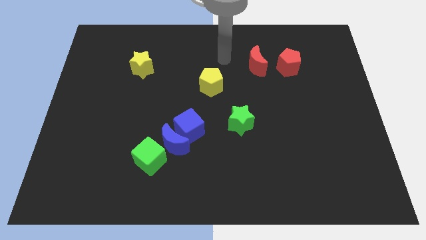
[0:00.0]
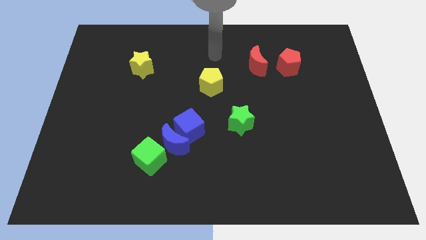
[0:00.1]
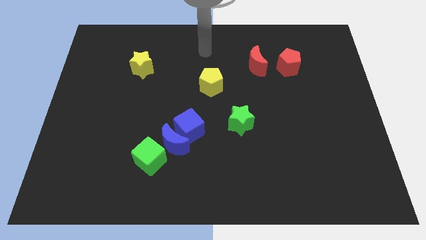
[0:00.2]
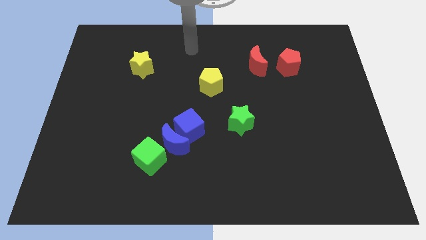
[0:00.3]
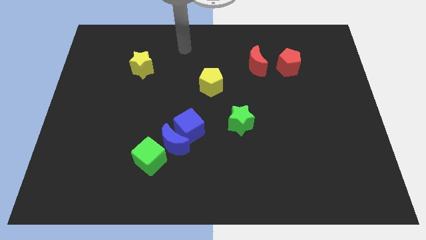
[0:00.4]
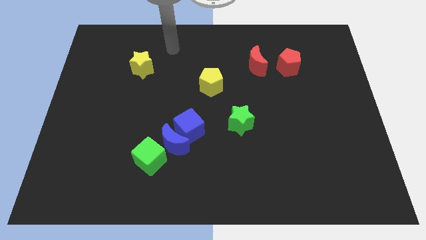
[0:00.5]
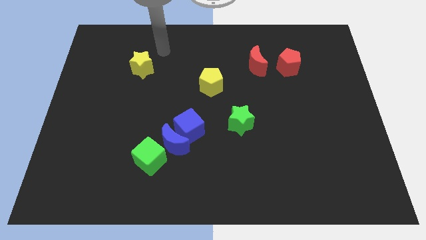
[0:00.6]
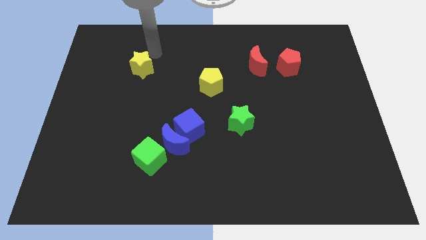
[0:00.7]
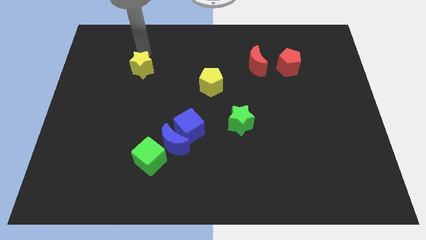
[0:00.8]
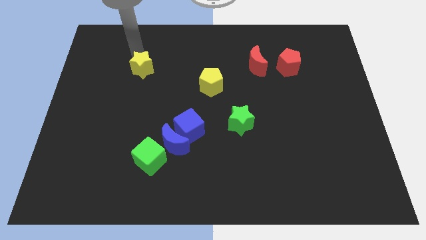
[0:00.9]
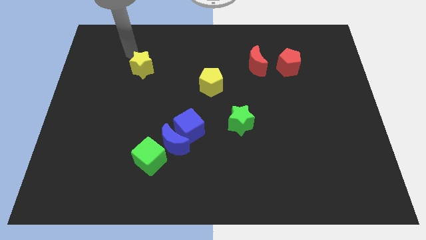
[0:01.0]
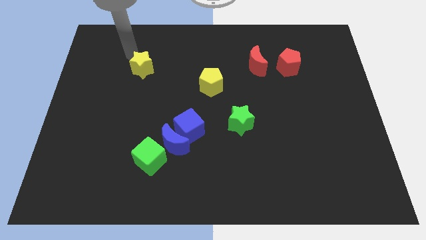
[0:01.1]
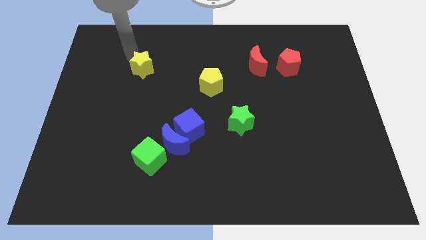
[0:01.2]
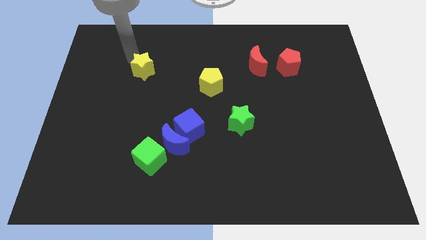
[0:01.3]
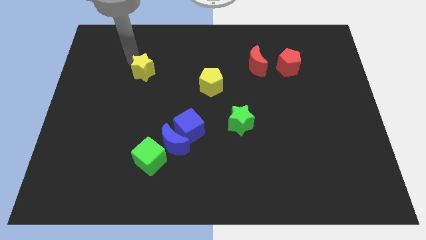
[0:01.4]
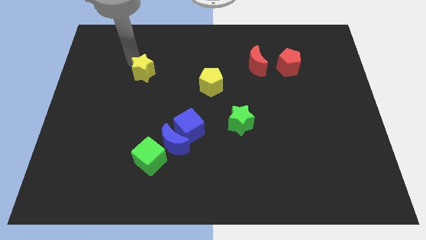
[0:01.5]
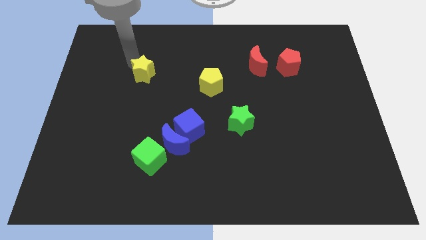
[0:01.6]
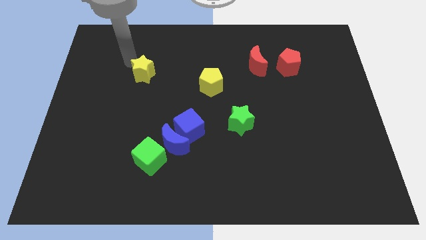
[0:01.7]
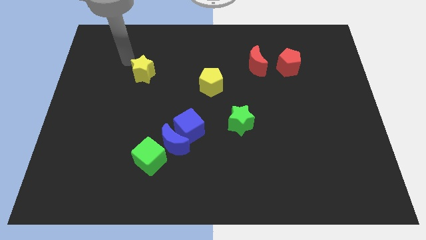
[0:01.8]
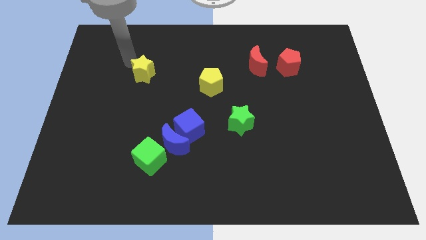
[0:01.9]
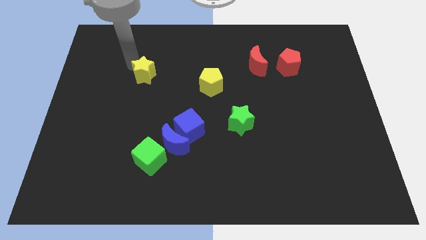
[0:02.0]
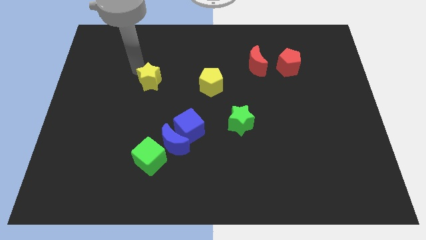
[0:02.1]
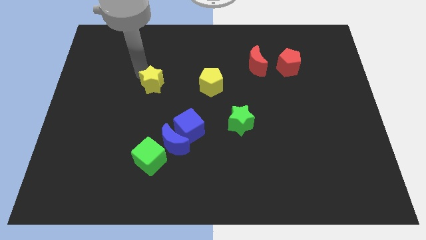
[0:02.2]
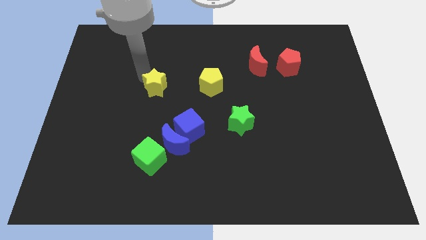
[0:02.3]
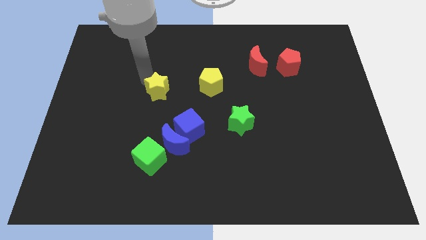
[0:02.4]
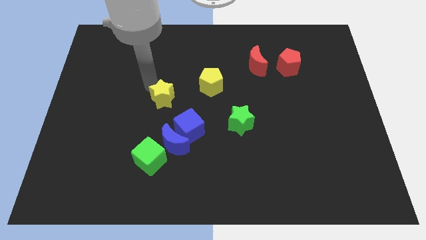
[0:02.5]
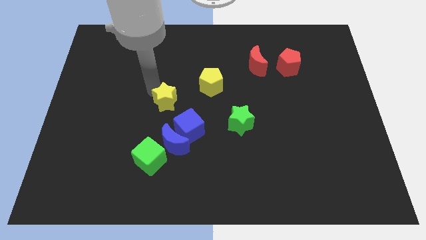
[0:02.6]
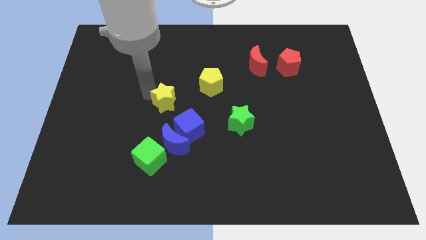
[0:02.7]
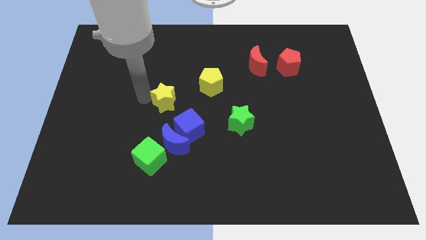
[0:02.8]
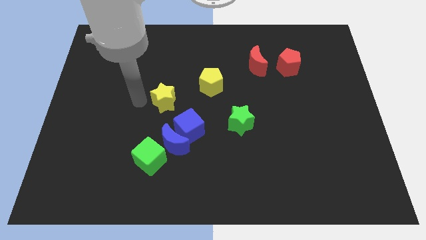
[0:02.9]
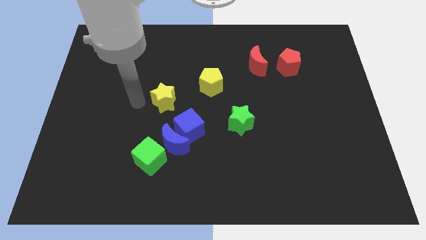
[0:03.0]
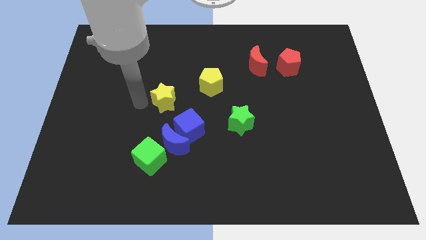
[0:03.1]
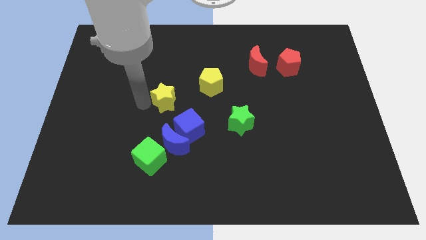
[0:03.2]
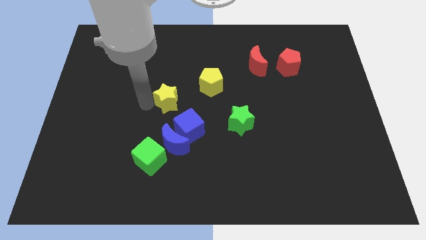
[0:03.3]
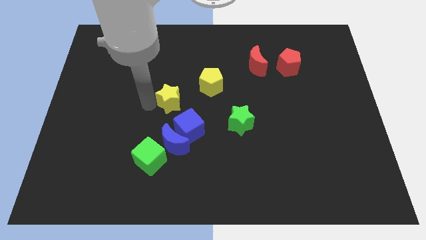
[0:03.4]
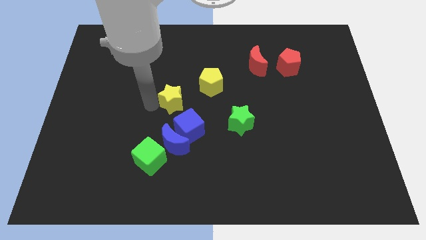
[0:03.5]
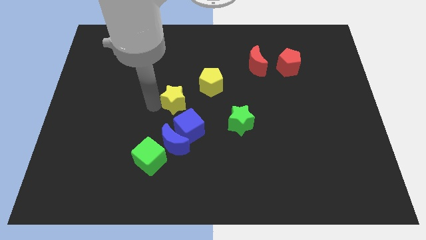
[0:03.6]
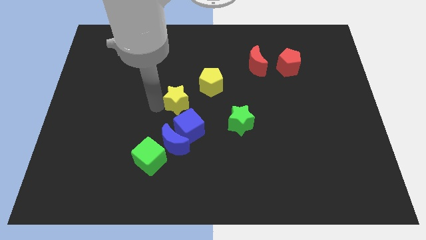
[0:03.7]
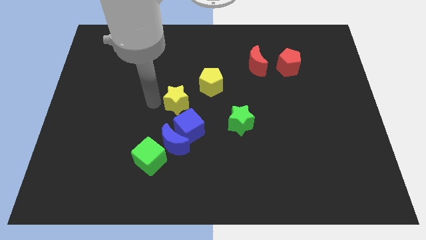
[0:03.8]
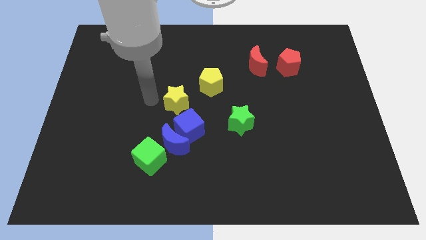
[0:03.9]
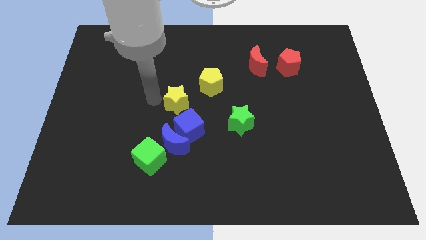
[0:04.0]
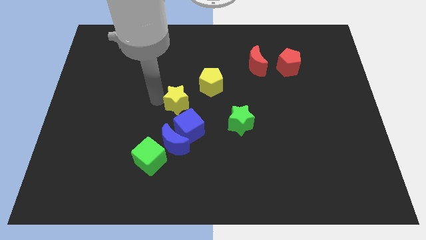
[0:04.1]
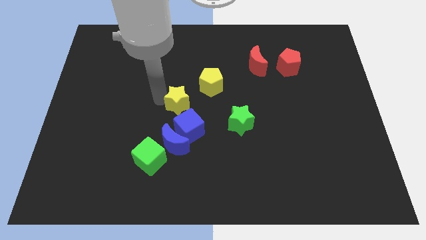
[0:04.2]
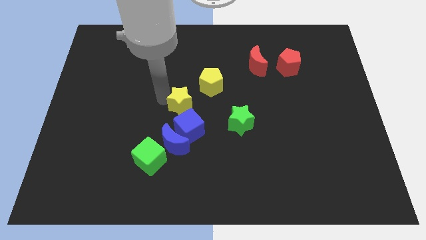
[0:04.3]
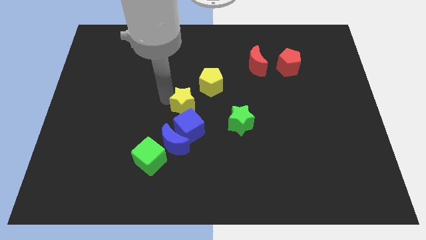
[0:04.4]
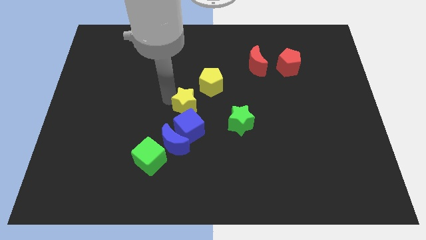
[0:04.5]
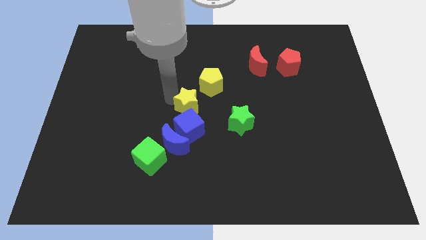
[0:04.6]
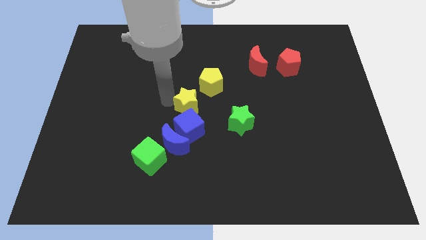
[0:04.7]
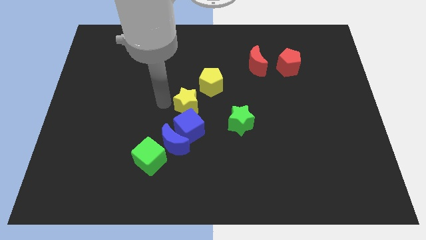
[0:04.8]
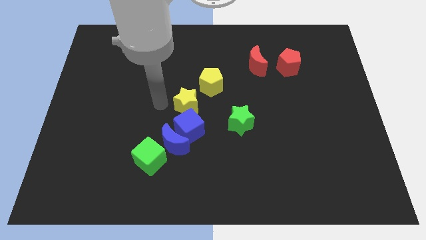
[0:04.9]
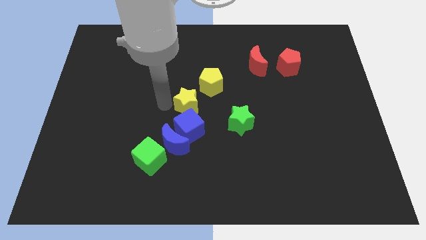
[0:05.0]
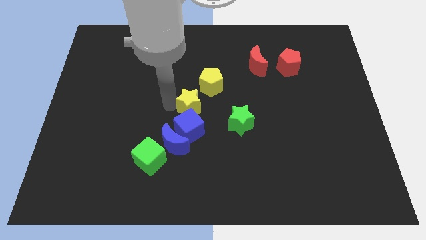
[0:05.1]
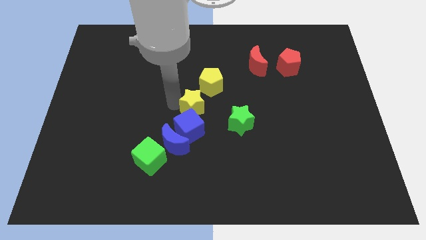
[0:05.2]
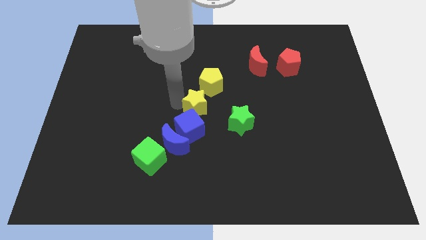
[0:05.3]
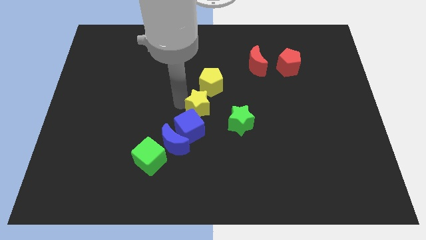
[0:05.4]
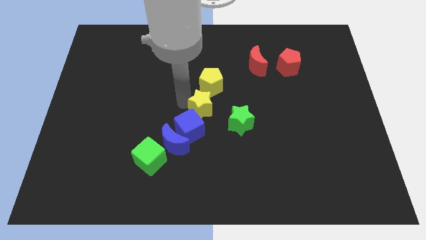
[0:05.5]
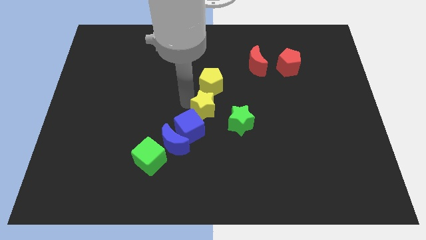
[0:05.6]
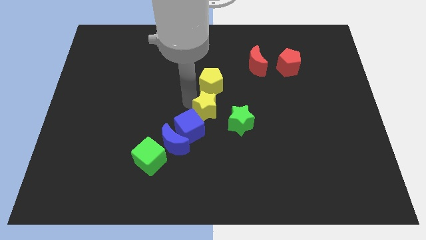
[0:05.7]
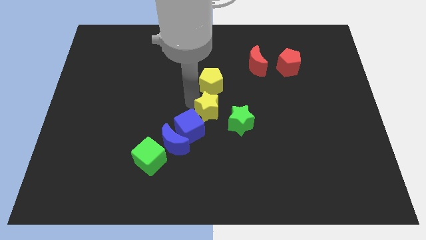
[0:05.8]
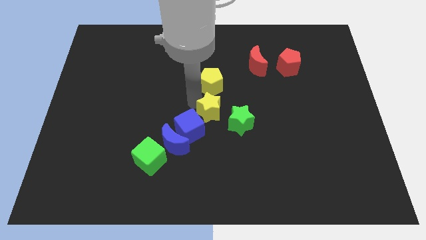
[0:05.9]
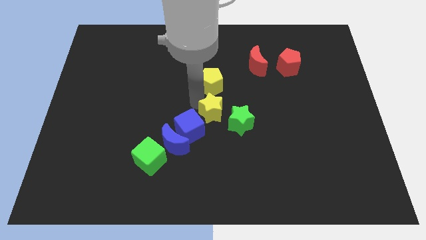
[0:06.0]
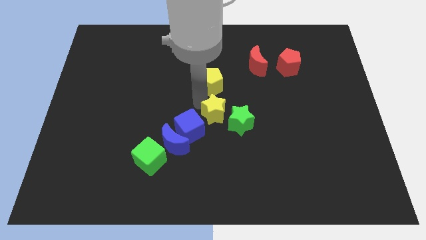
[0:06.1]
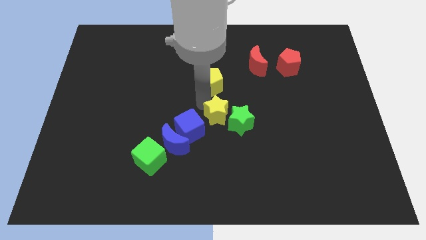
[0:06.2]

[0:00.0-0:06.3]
slide the yellow star next to the green star

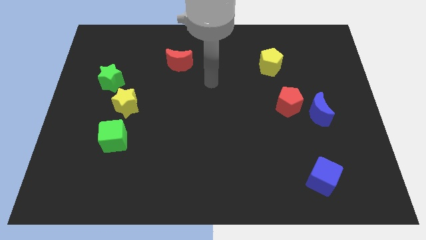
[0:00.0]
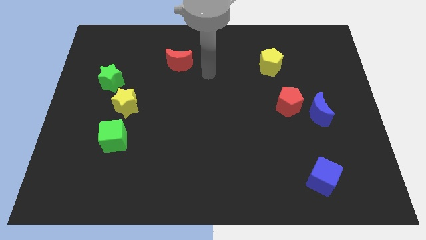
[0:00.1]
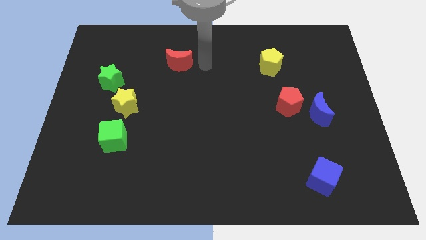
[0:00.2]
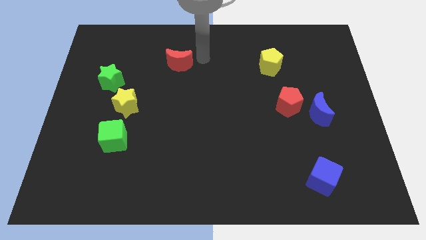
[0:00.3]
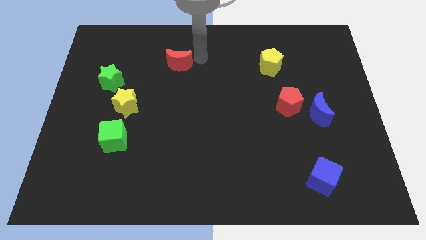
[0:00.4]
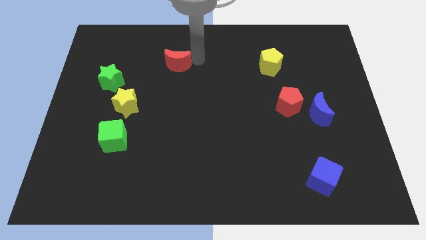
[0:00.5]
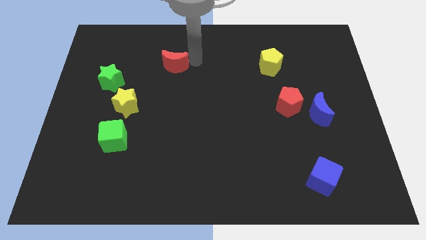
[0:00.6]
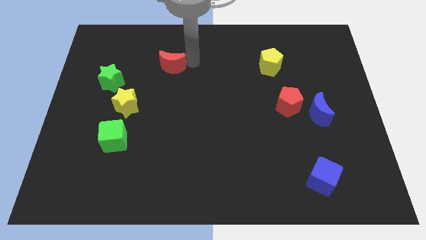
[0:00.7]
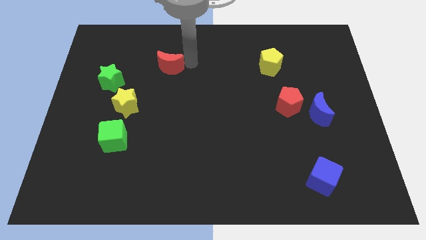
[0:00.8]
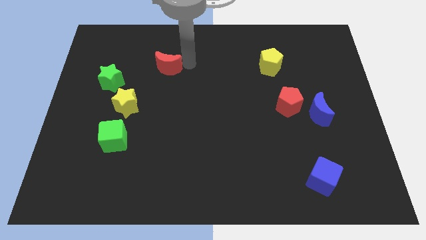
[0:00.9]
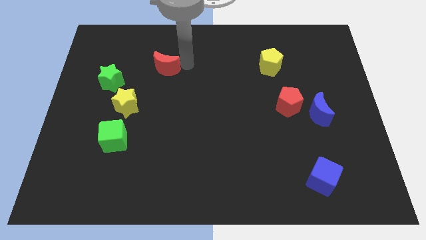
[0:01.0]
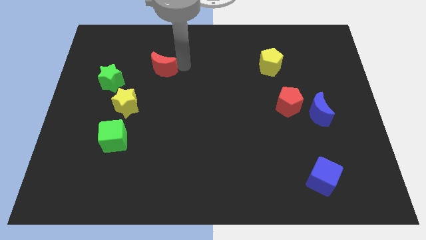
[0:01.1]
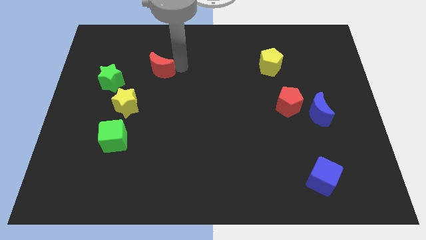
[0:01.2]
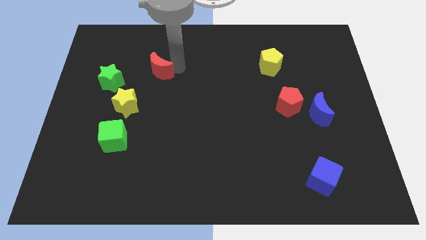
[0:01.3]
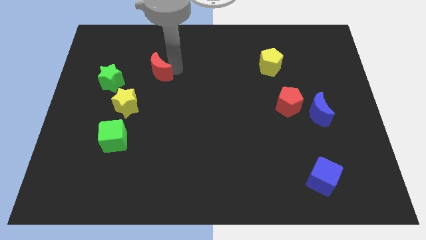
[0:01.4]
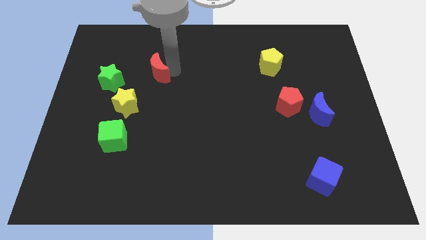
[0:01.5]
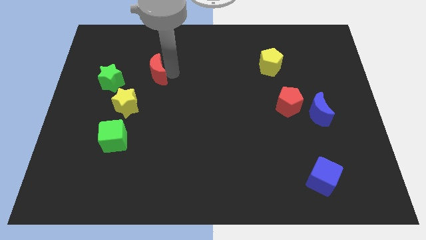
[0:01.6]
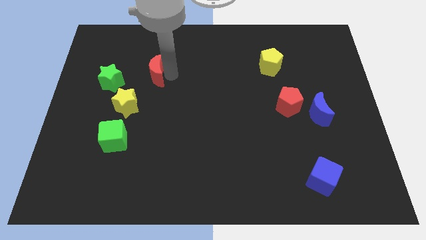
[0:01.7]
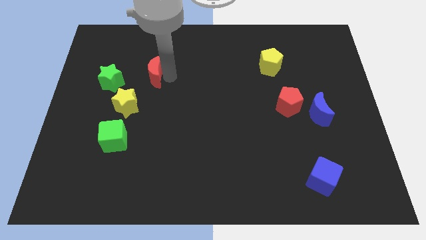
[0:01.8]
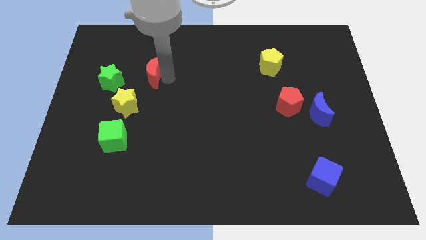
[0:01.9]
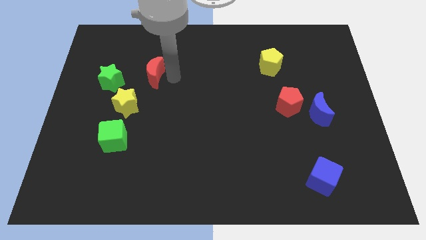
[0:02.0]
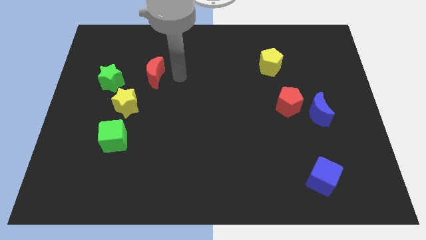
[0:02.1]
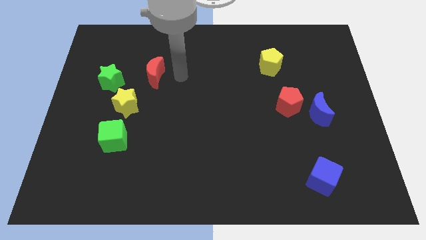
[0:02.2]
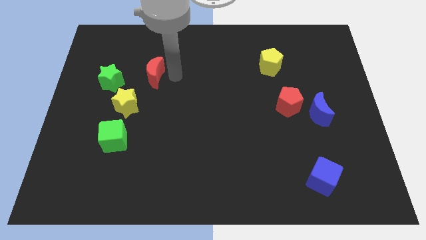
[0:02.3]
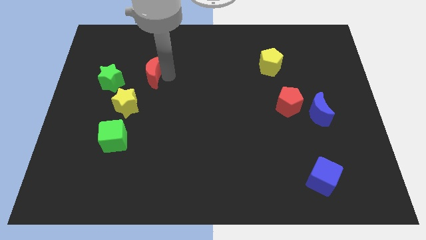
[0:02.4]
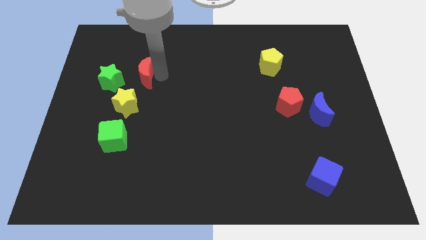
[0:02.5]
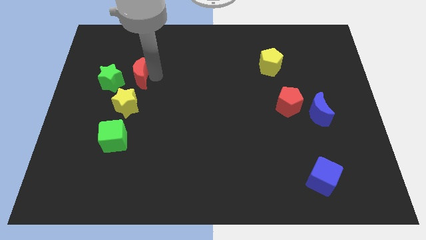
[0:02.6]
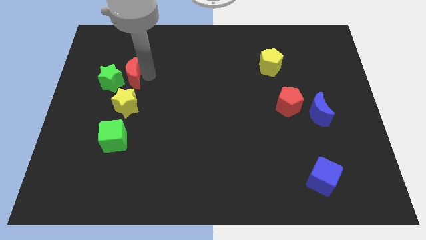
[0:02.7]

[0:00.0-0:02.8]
put the red moon to the green star
